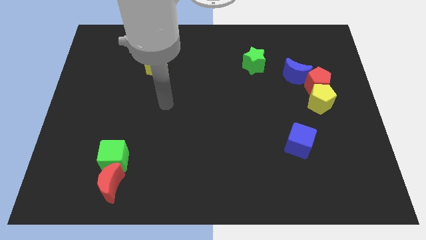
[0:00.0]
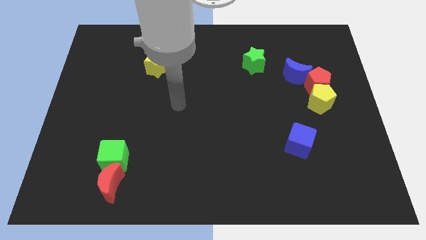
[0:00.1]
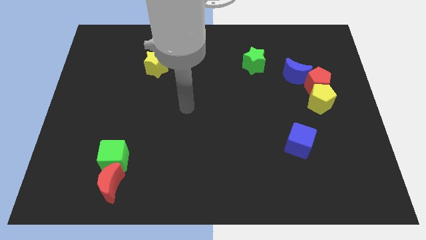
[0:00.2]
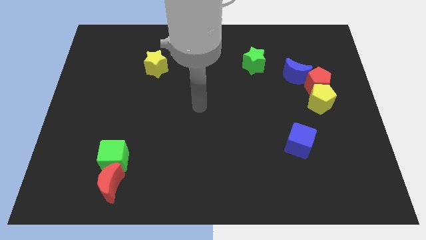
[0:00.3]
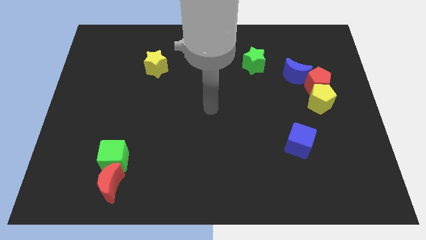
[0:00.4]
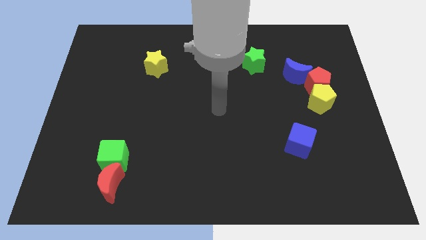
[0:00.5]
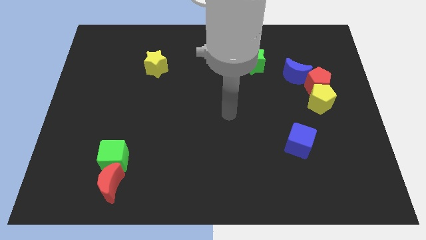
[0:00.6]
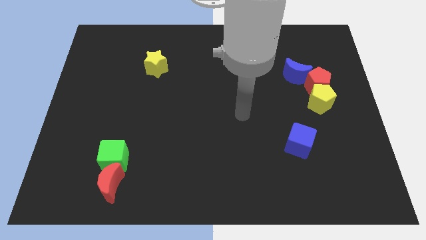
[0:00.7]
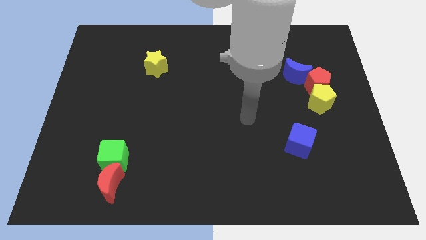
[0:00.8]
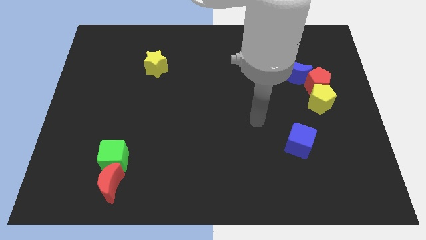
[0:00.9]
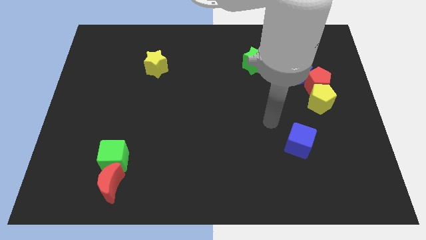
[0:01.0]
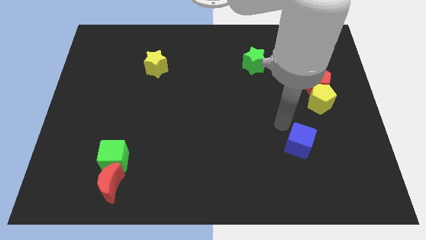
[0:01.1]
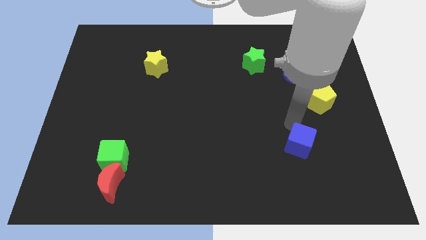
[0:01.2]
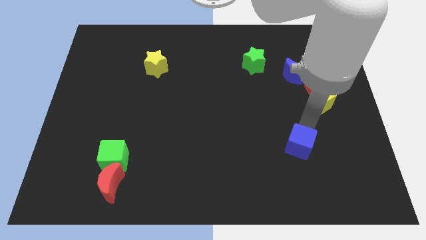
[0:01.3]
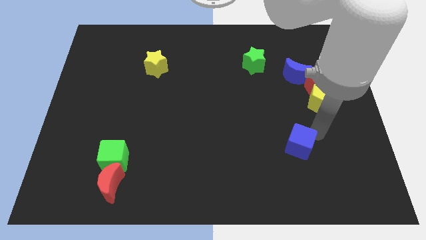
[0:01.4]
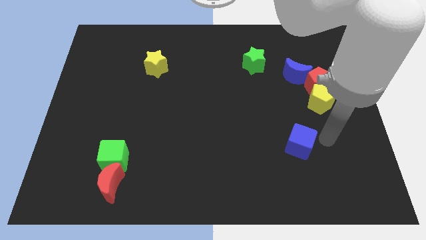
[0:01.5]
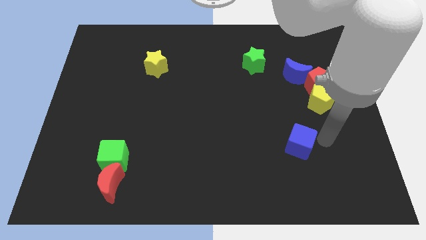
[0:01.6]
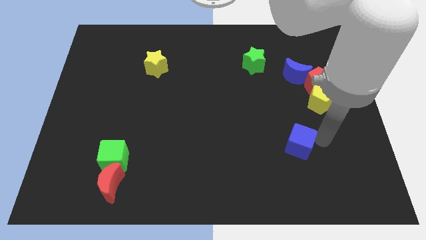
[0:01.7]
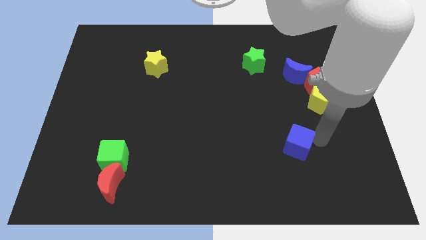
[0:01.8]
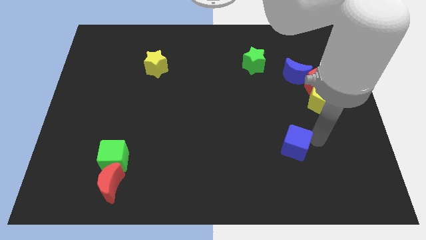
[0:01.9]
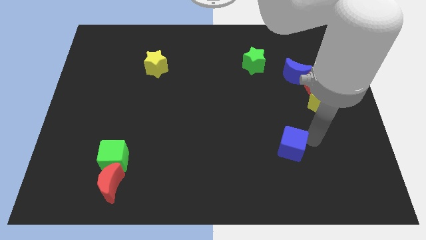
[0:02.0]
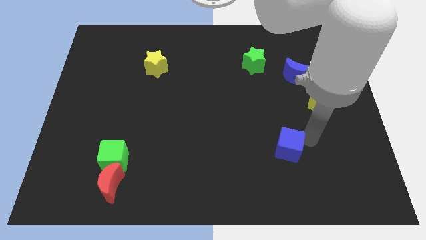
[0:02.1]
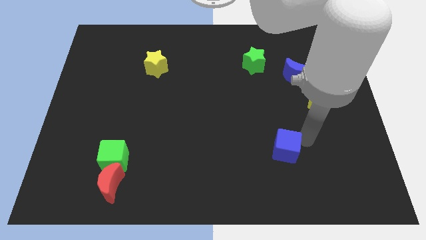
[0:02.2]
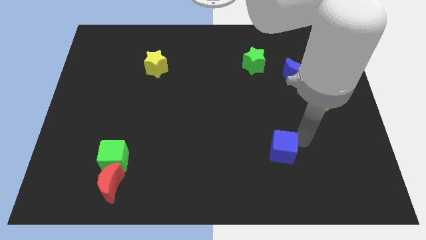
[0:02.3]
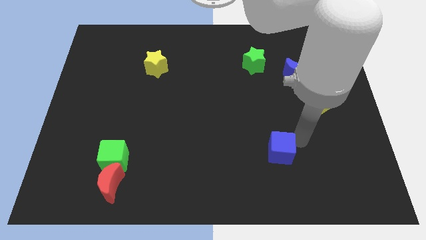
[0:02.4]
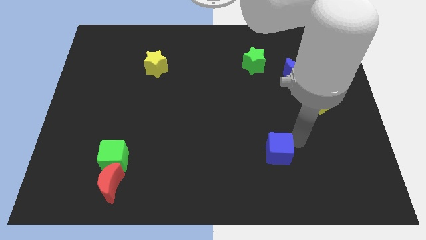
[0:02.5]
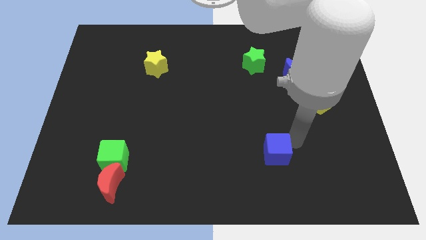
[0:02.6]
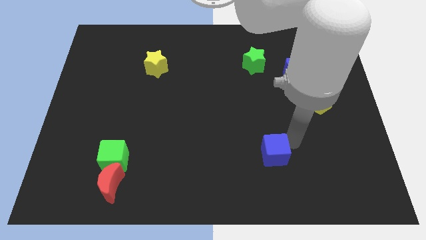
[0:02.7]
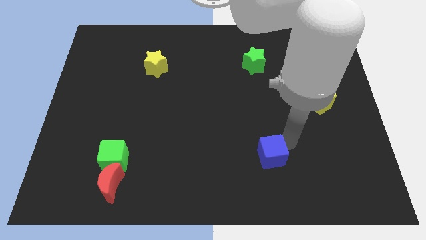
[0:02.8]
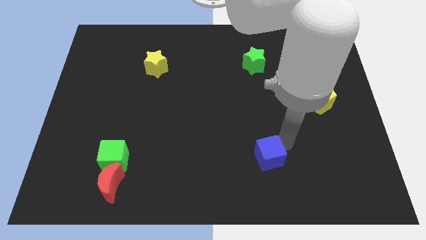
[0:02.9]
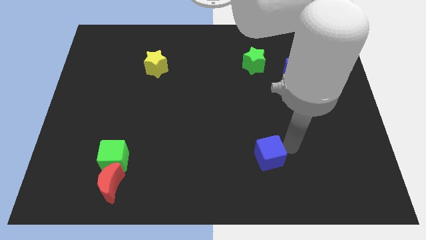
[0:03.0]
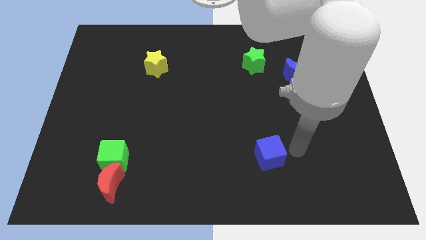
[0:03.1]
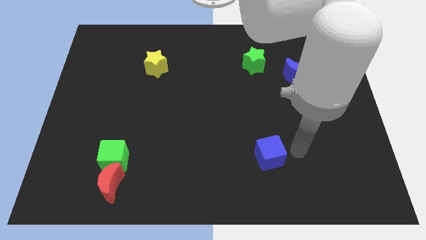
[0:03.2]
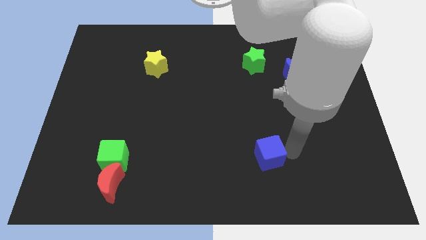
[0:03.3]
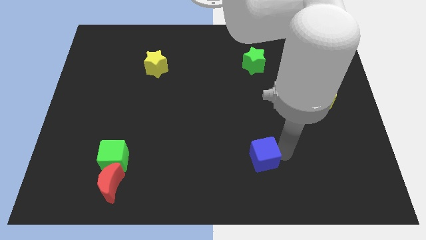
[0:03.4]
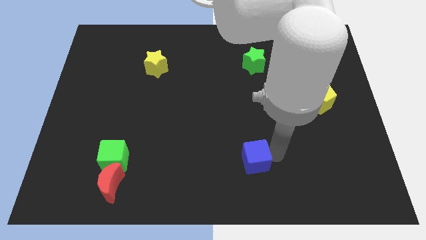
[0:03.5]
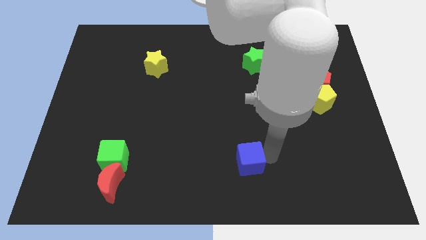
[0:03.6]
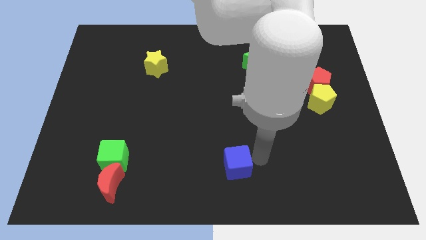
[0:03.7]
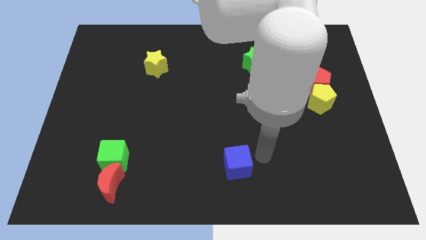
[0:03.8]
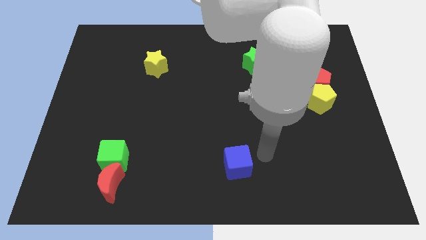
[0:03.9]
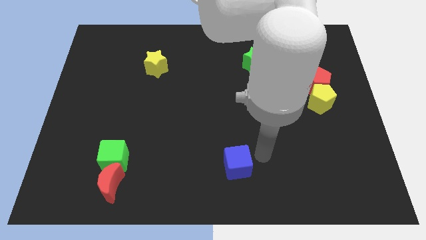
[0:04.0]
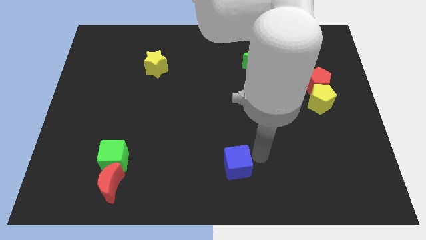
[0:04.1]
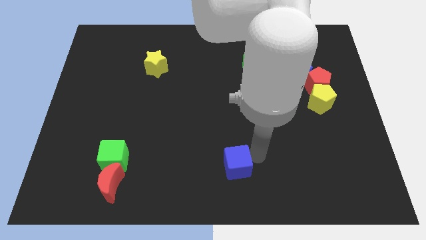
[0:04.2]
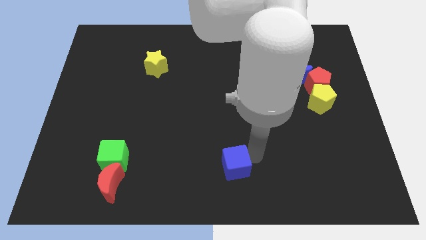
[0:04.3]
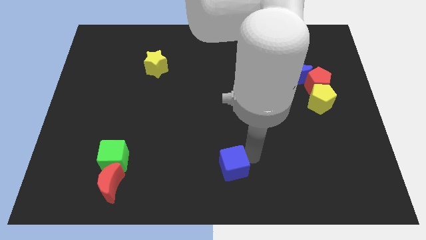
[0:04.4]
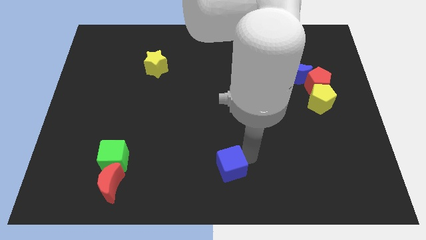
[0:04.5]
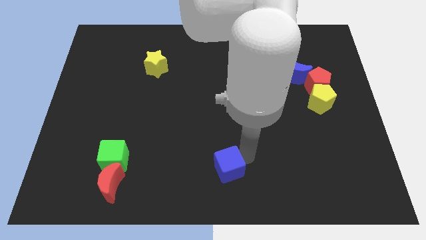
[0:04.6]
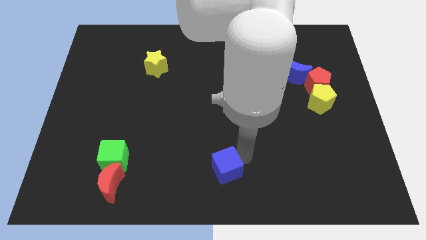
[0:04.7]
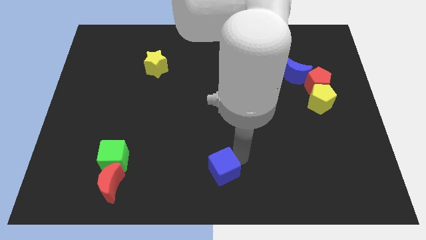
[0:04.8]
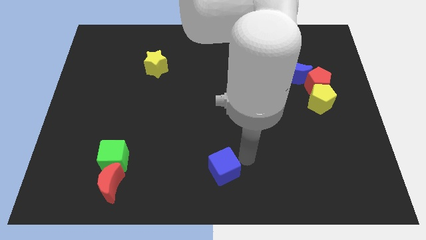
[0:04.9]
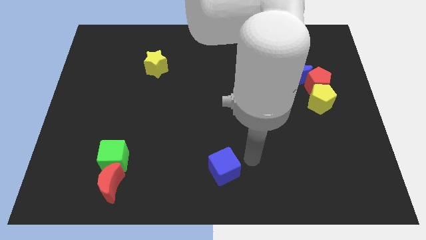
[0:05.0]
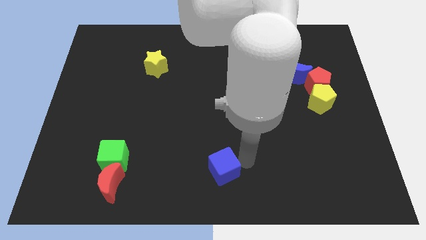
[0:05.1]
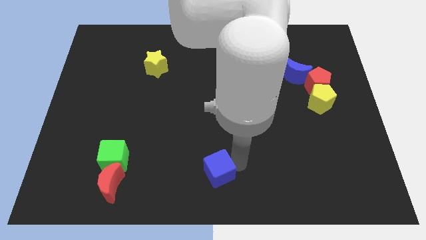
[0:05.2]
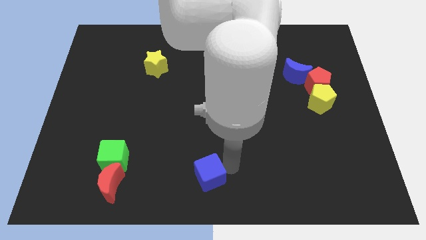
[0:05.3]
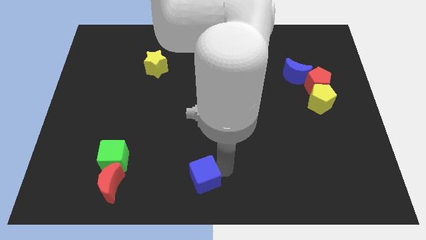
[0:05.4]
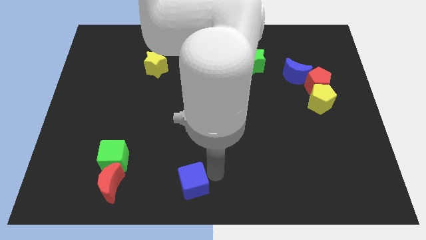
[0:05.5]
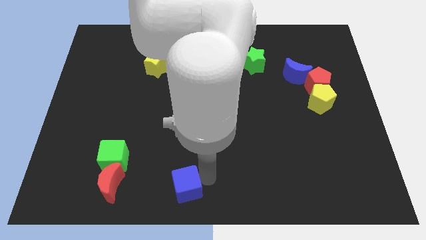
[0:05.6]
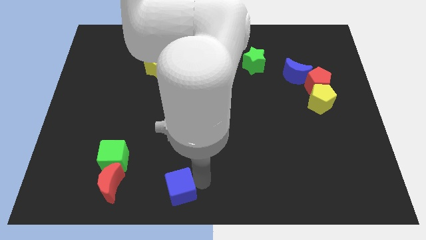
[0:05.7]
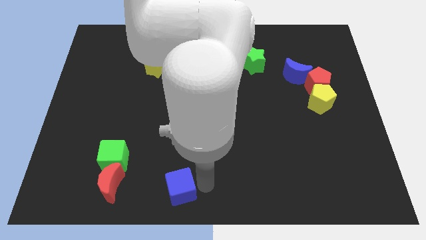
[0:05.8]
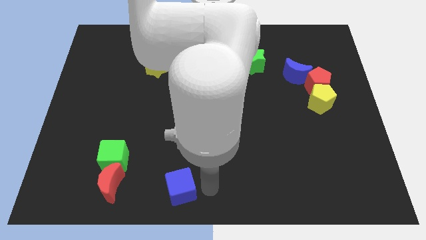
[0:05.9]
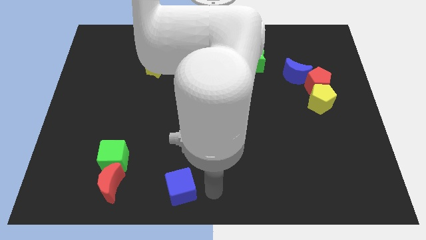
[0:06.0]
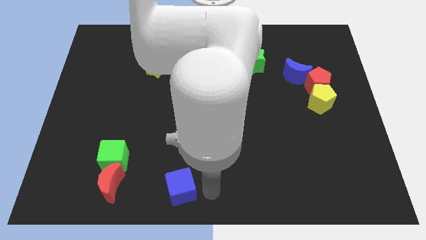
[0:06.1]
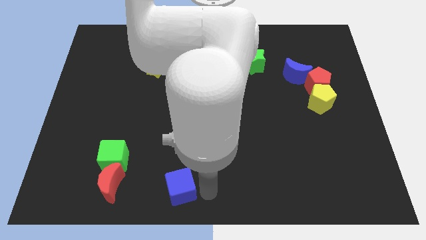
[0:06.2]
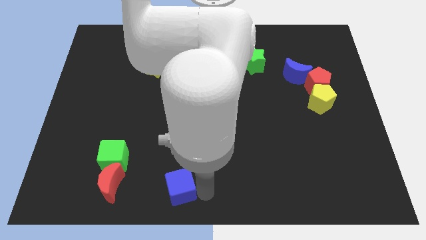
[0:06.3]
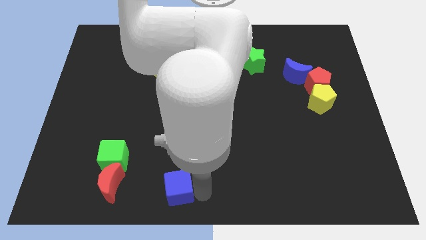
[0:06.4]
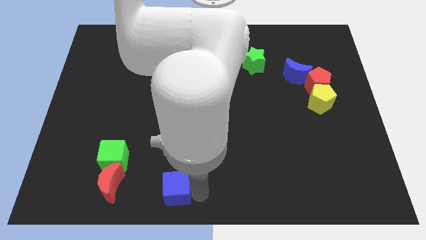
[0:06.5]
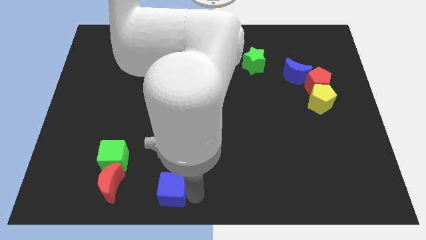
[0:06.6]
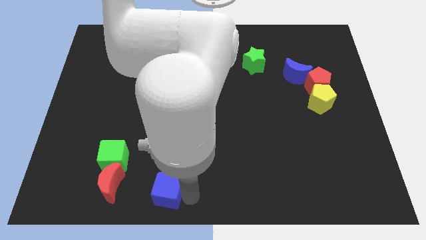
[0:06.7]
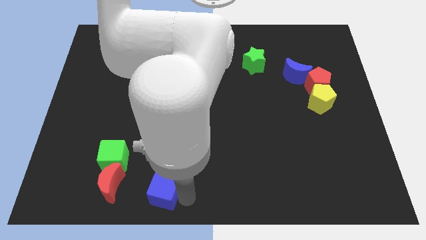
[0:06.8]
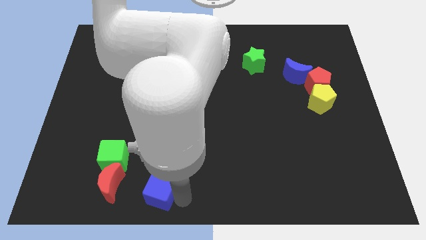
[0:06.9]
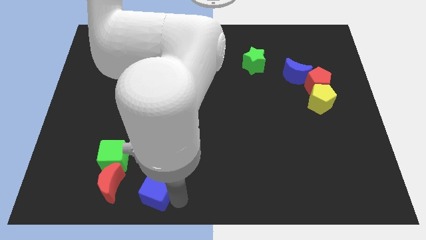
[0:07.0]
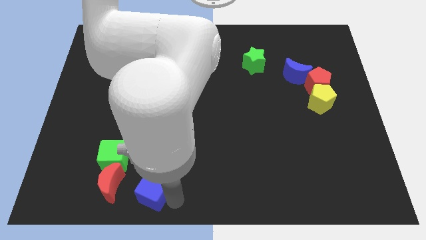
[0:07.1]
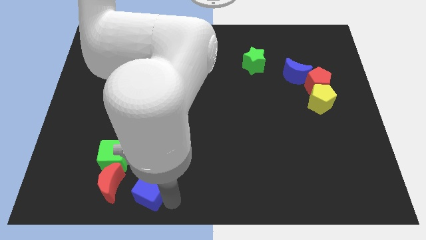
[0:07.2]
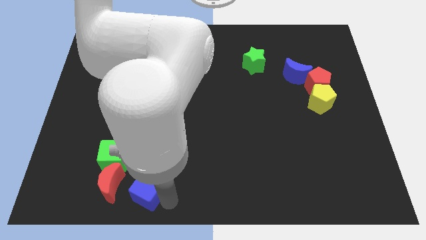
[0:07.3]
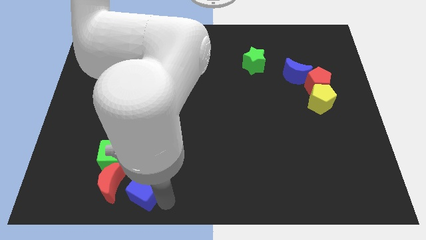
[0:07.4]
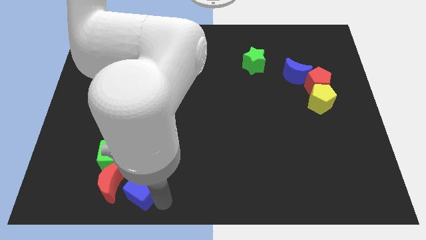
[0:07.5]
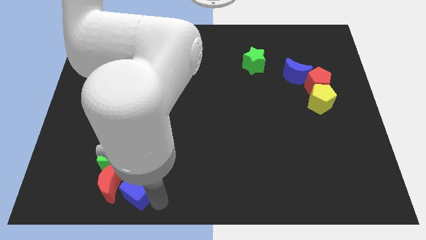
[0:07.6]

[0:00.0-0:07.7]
push the blue cube next to the red moon
